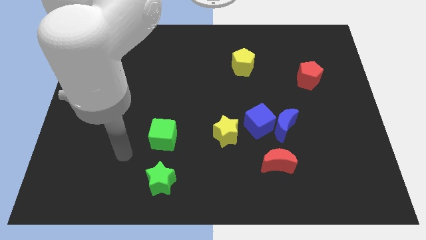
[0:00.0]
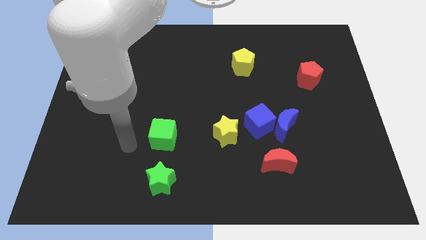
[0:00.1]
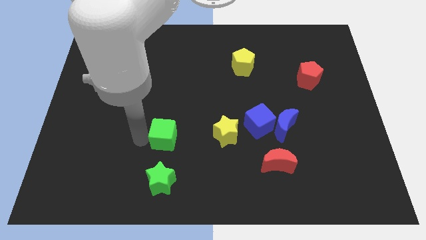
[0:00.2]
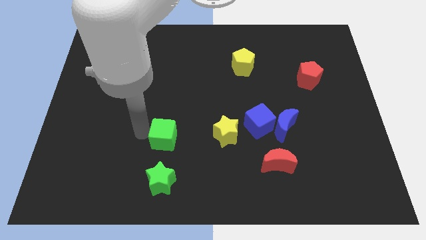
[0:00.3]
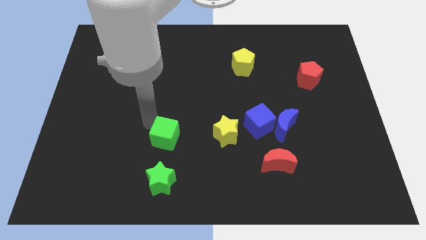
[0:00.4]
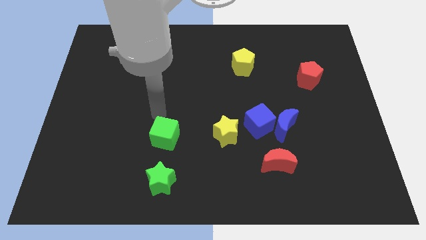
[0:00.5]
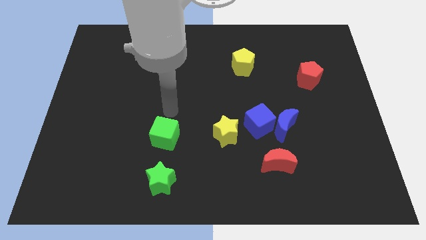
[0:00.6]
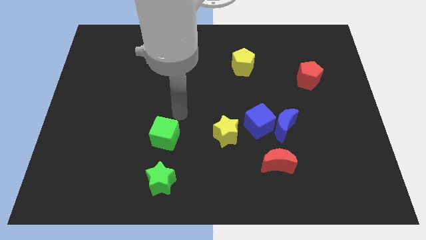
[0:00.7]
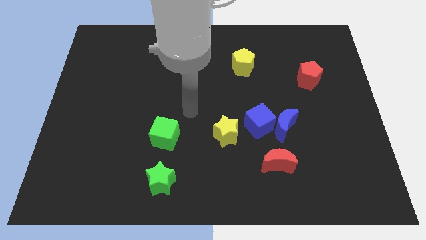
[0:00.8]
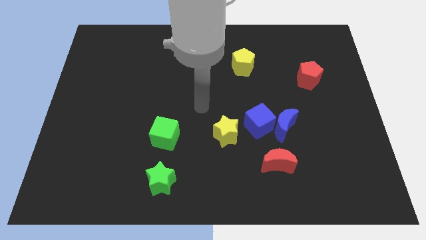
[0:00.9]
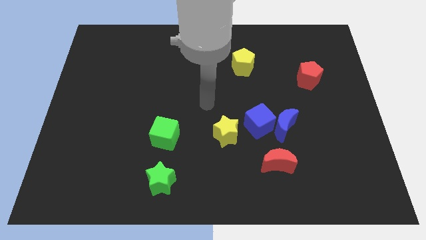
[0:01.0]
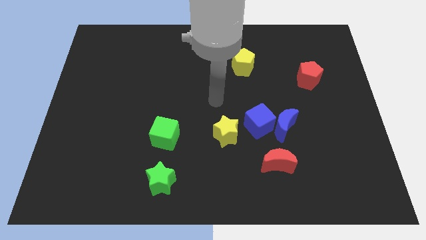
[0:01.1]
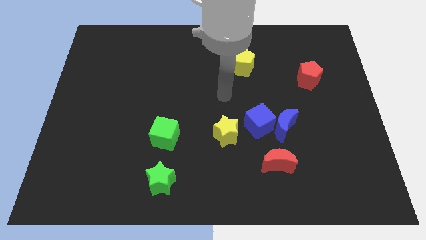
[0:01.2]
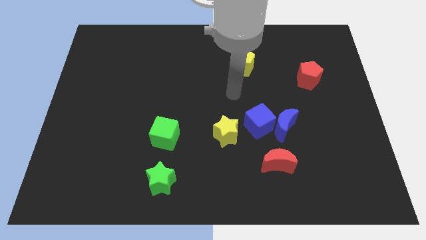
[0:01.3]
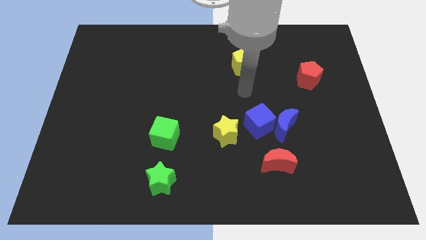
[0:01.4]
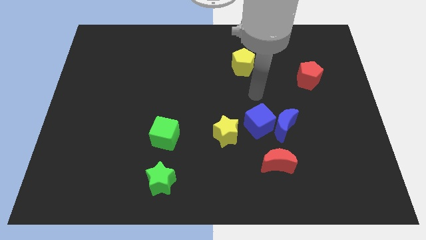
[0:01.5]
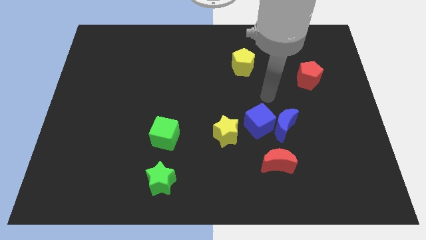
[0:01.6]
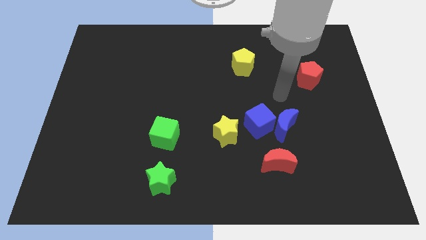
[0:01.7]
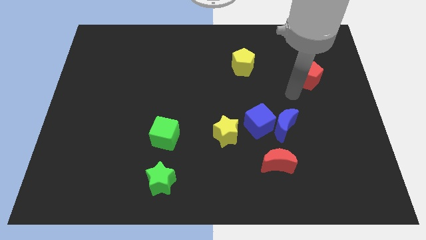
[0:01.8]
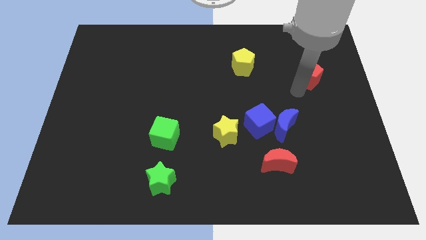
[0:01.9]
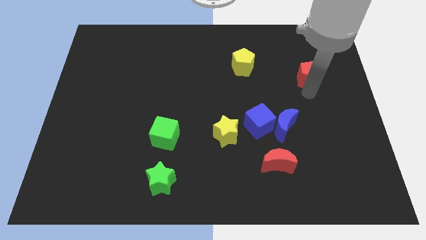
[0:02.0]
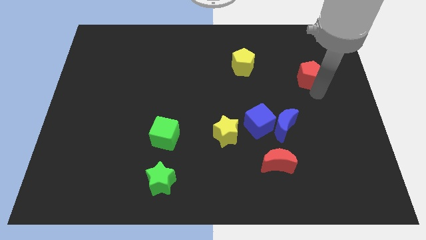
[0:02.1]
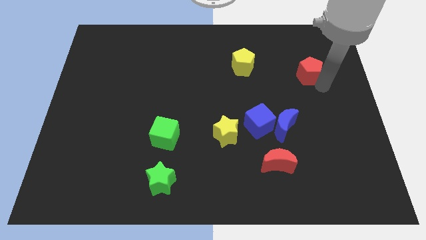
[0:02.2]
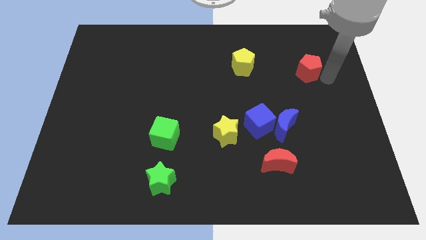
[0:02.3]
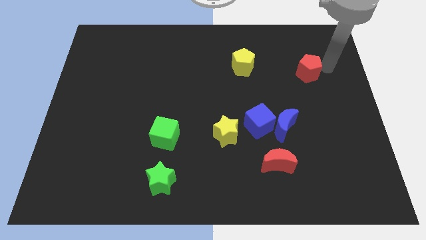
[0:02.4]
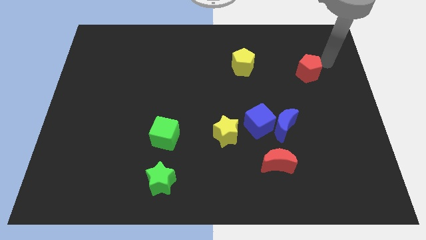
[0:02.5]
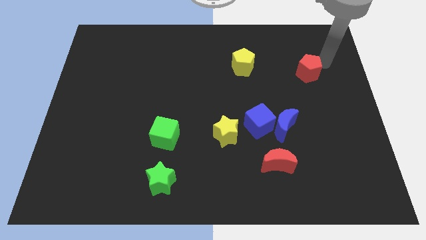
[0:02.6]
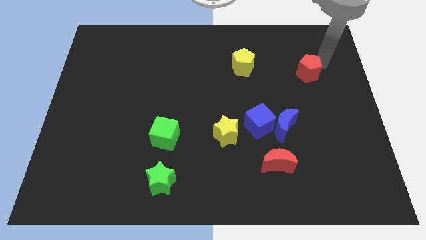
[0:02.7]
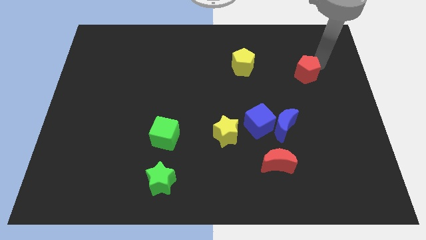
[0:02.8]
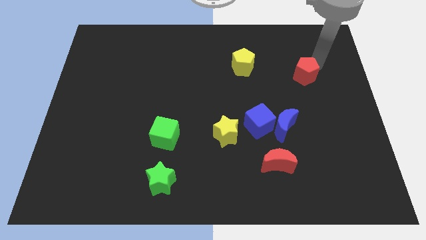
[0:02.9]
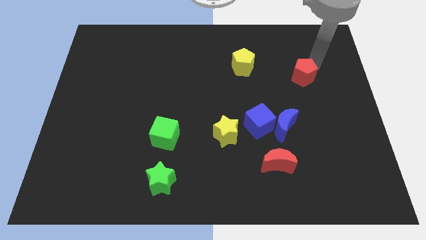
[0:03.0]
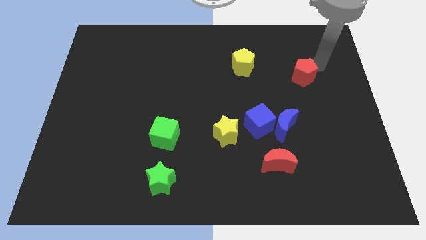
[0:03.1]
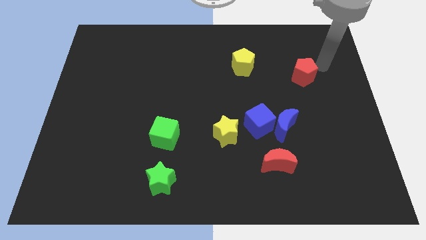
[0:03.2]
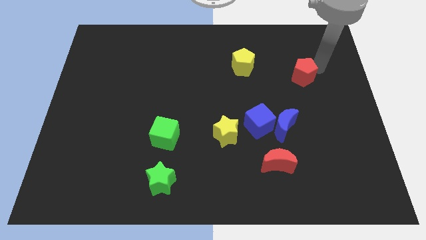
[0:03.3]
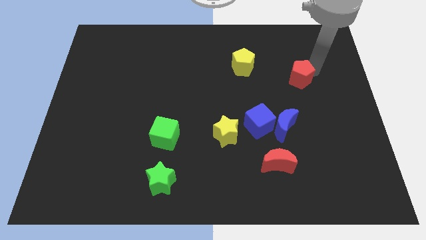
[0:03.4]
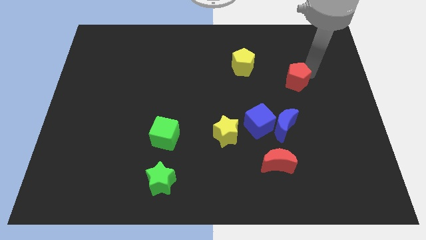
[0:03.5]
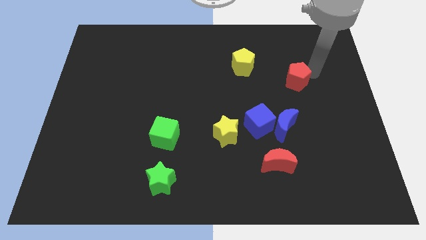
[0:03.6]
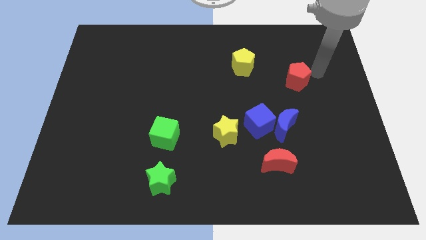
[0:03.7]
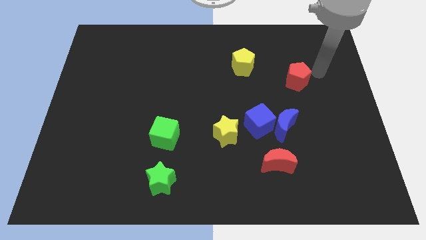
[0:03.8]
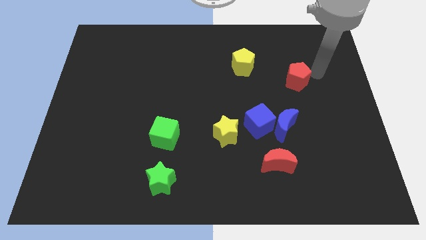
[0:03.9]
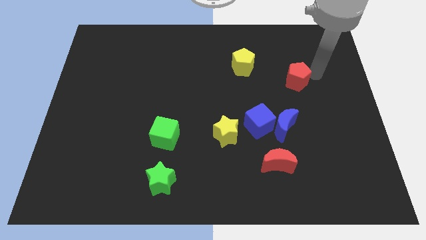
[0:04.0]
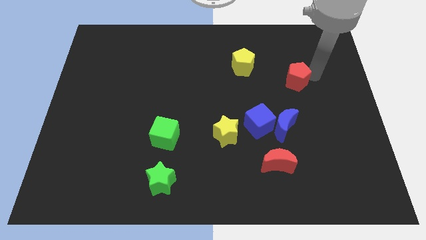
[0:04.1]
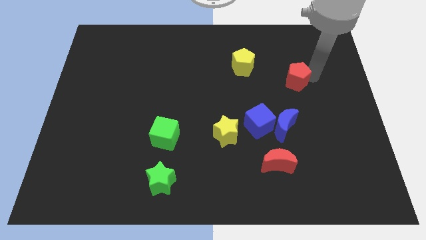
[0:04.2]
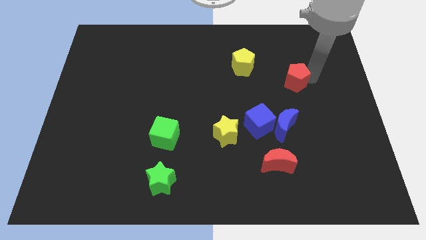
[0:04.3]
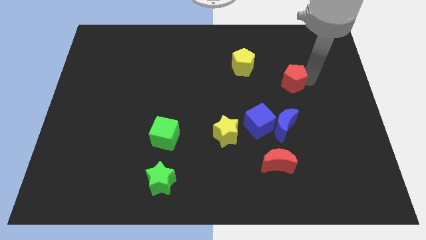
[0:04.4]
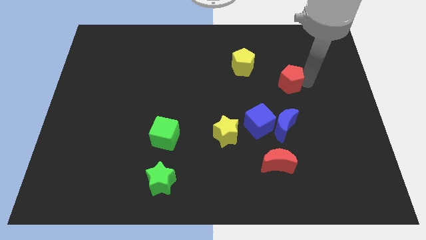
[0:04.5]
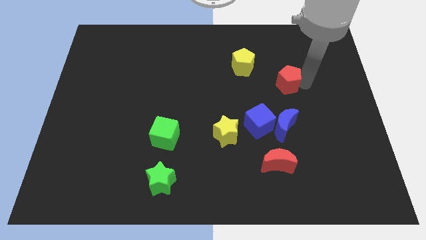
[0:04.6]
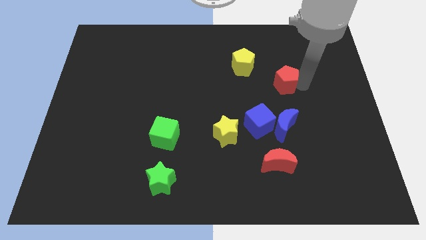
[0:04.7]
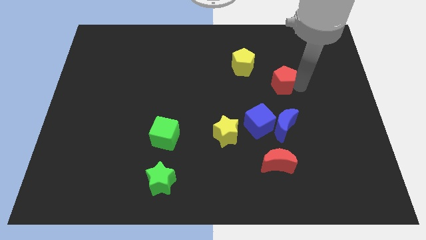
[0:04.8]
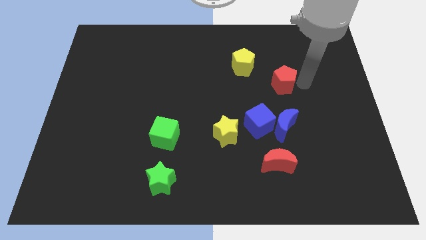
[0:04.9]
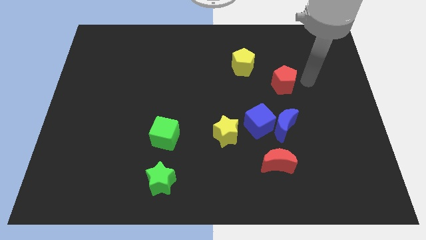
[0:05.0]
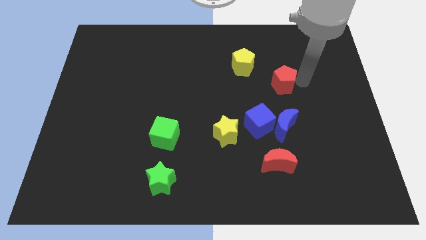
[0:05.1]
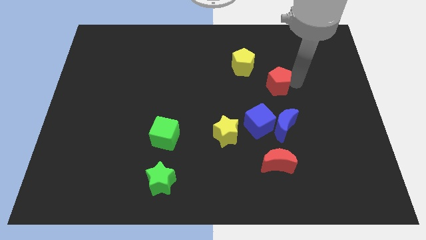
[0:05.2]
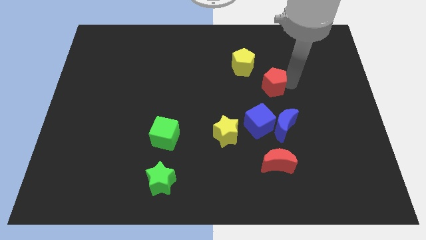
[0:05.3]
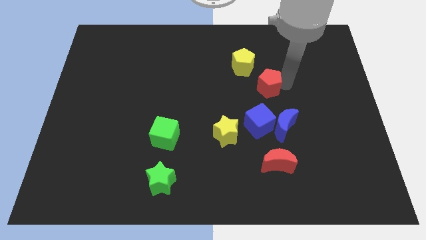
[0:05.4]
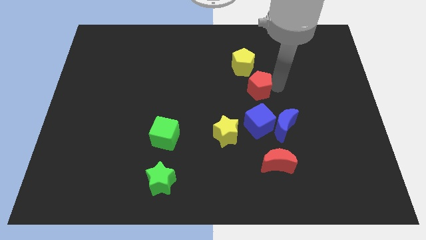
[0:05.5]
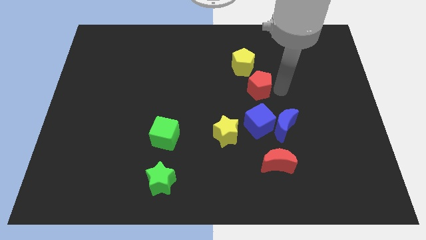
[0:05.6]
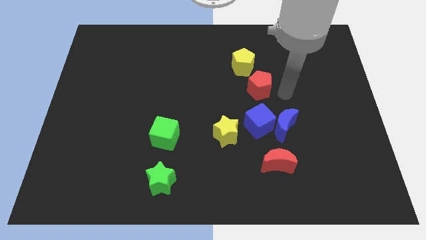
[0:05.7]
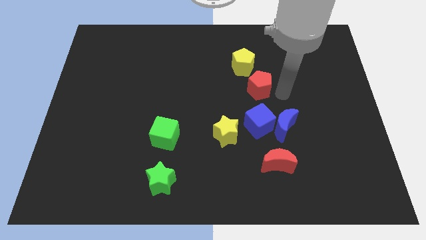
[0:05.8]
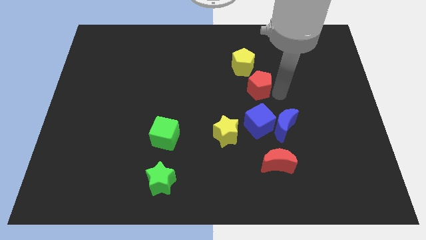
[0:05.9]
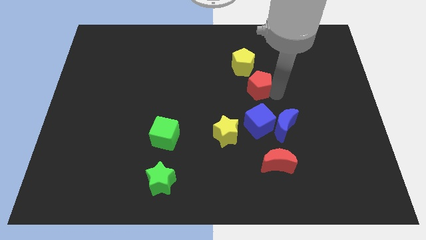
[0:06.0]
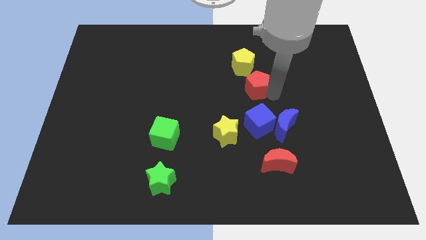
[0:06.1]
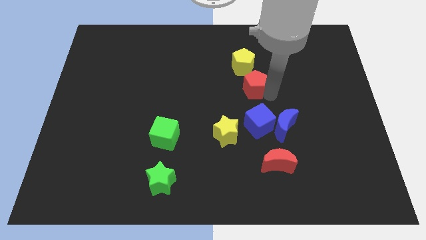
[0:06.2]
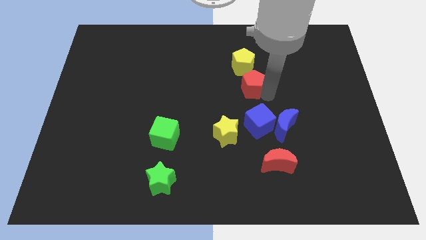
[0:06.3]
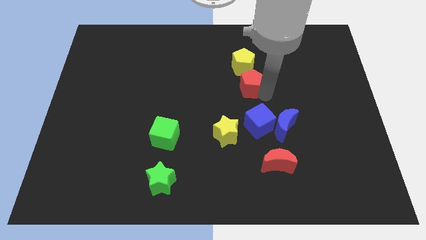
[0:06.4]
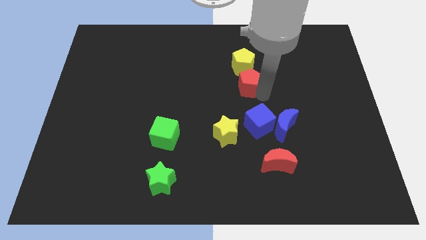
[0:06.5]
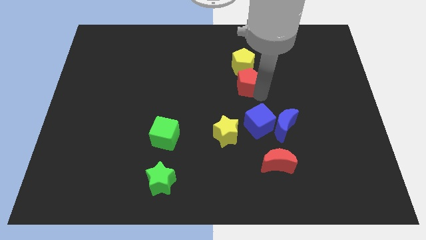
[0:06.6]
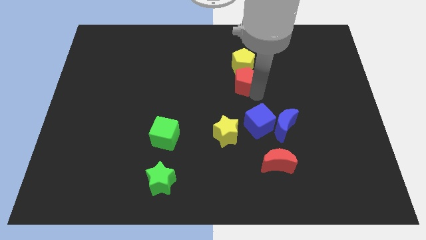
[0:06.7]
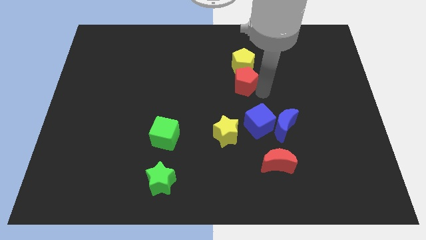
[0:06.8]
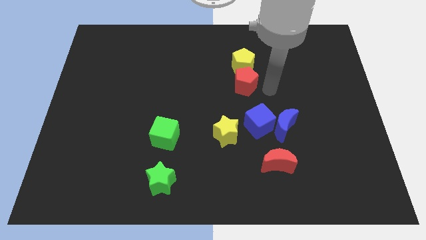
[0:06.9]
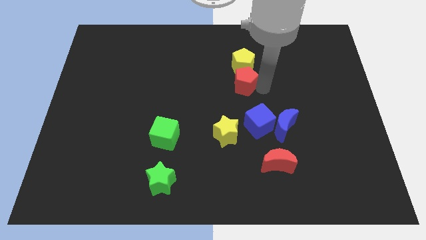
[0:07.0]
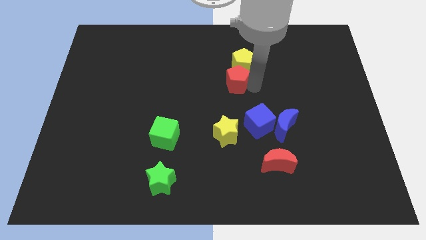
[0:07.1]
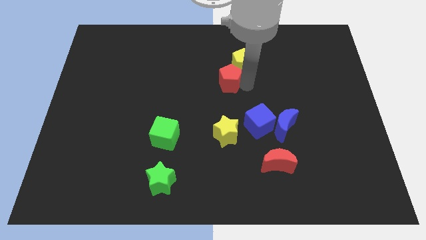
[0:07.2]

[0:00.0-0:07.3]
slide the red pentagon left

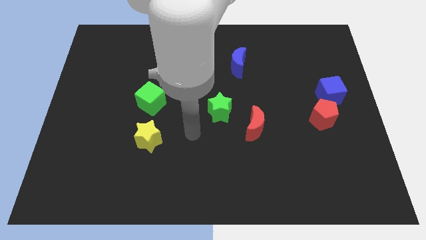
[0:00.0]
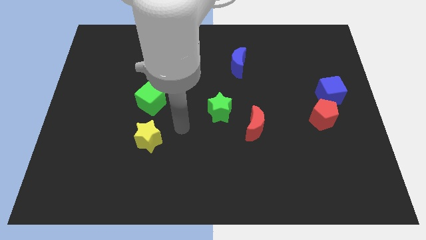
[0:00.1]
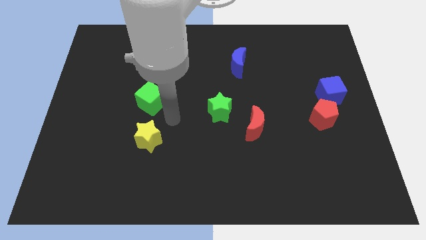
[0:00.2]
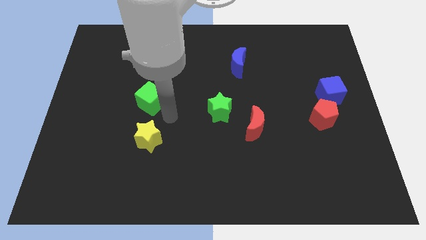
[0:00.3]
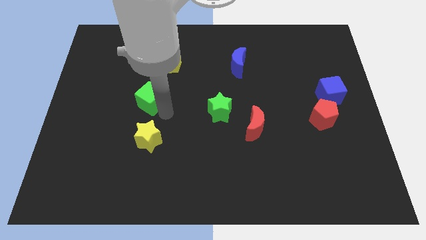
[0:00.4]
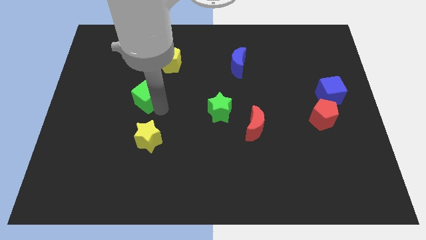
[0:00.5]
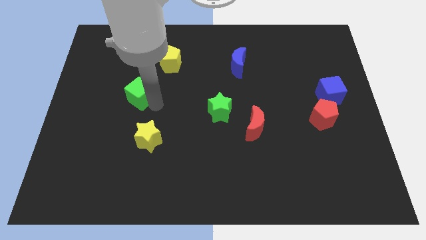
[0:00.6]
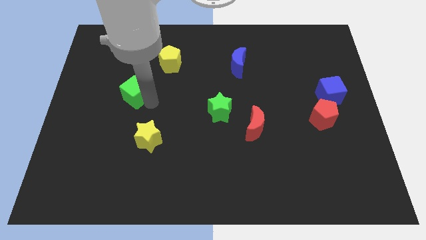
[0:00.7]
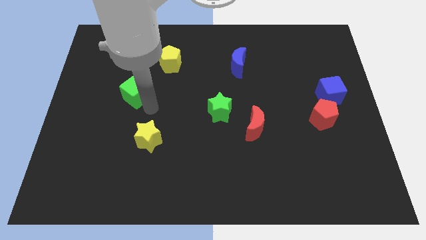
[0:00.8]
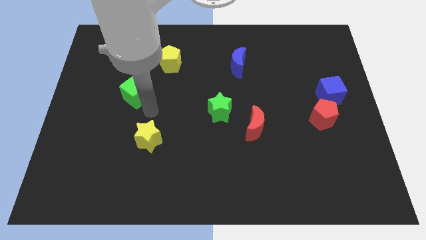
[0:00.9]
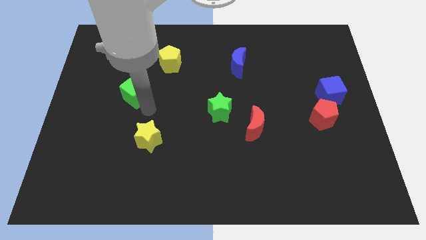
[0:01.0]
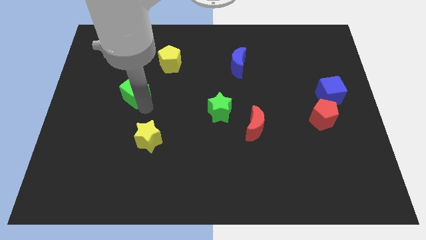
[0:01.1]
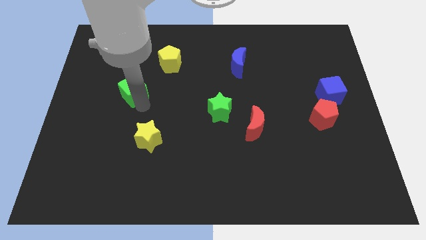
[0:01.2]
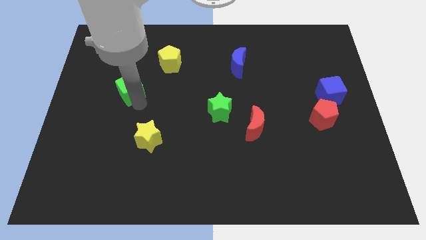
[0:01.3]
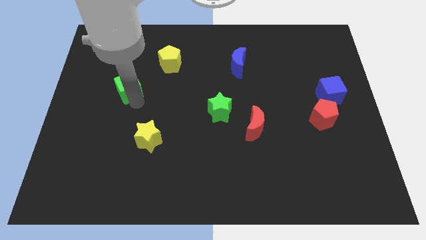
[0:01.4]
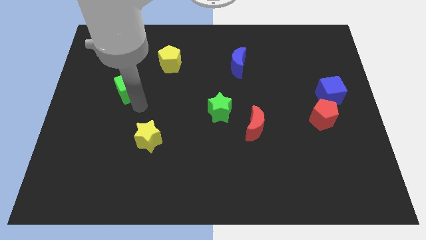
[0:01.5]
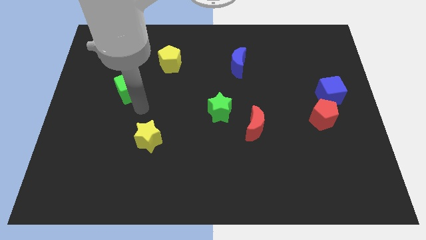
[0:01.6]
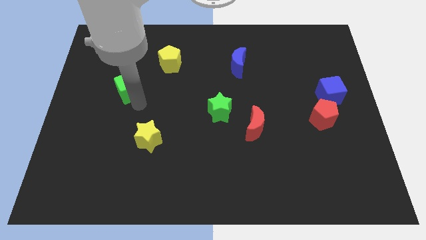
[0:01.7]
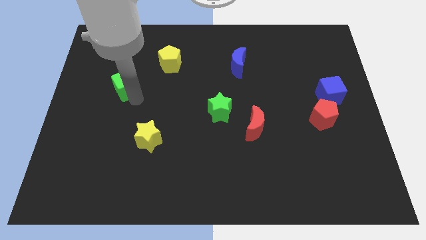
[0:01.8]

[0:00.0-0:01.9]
push the green cube slightly up and then to the left
